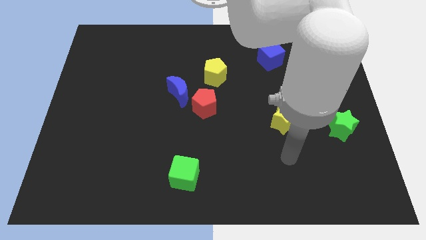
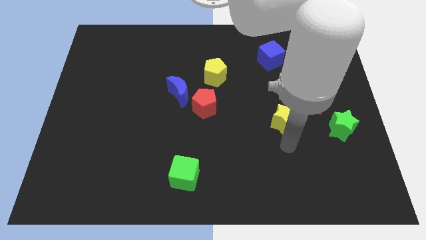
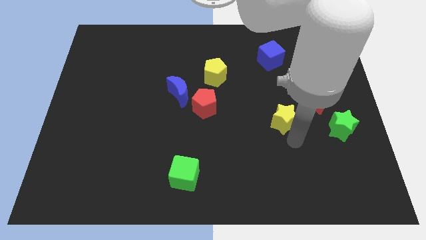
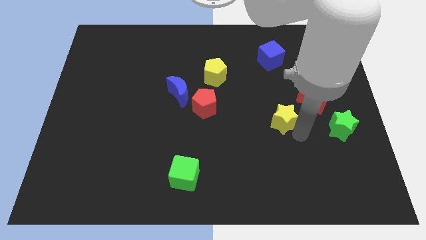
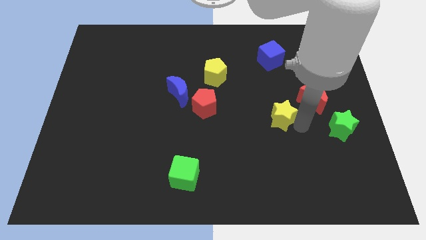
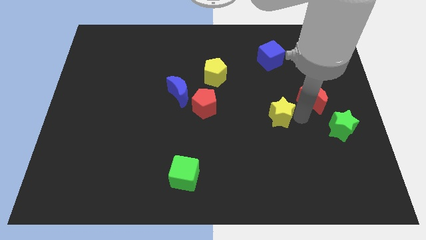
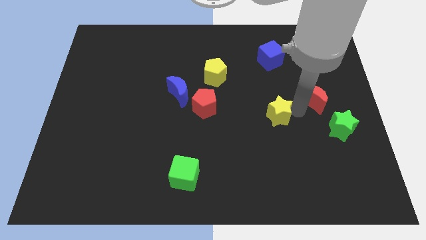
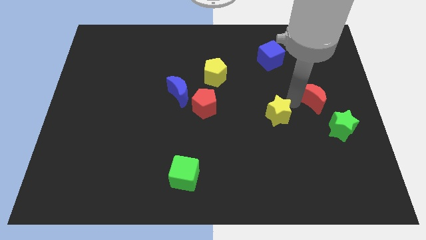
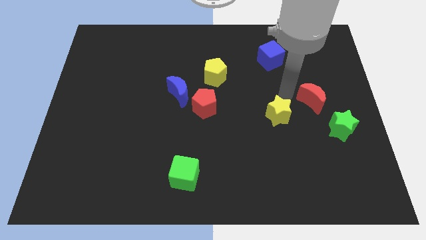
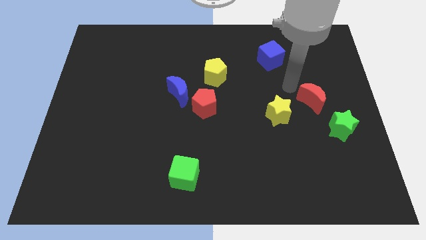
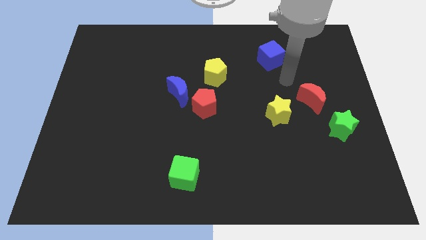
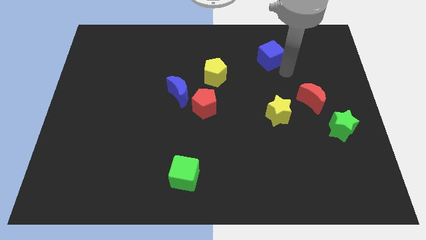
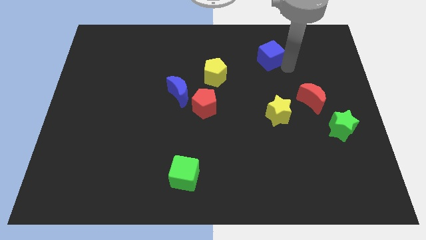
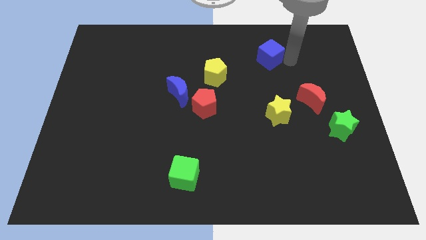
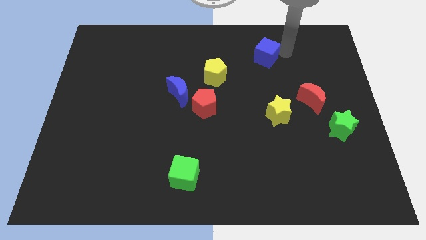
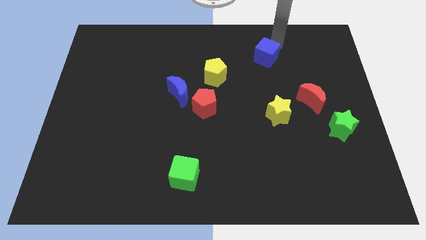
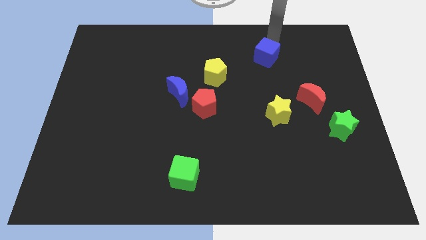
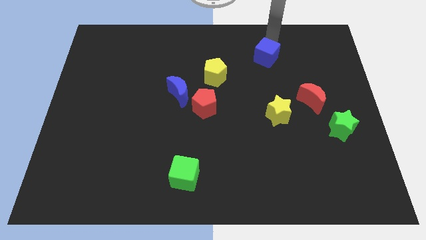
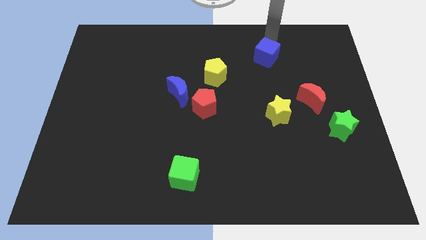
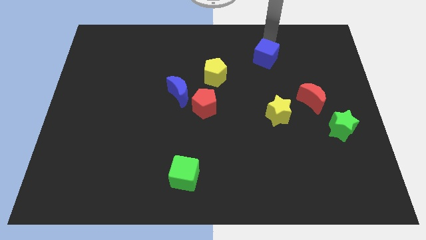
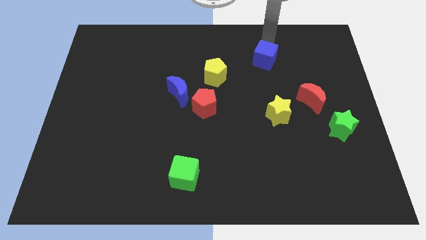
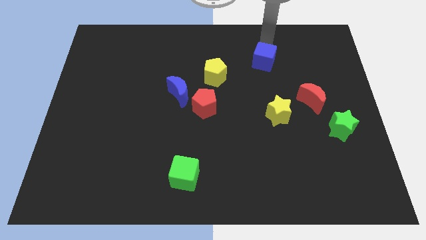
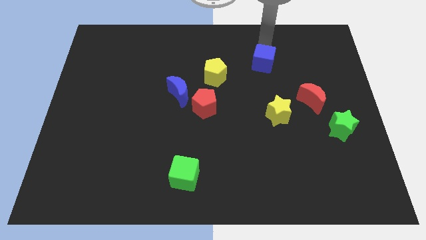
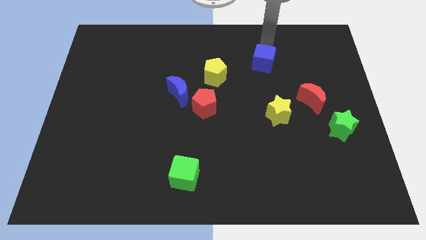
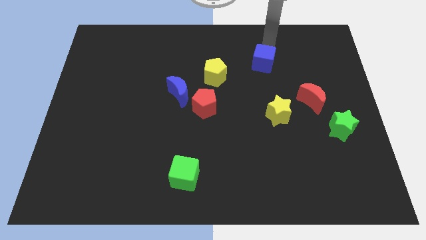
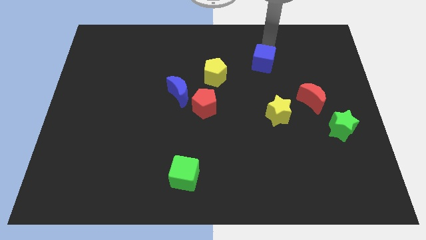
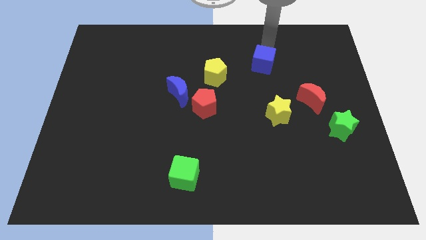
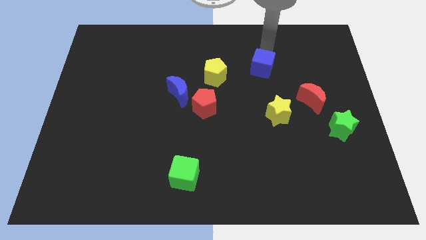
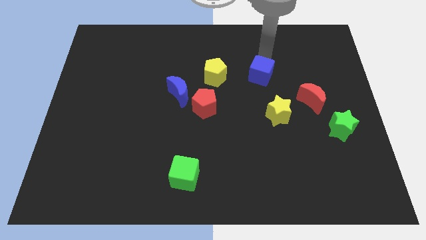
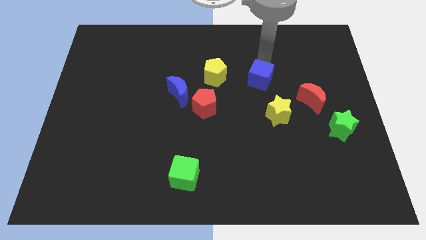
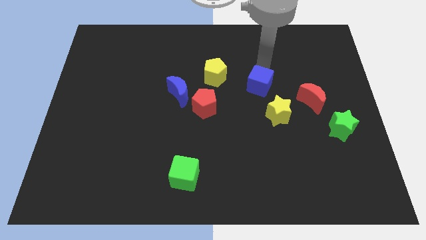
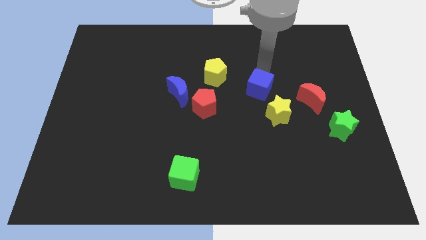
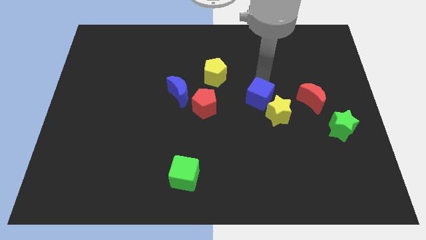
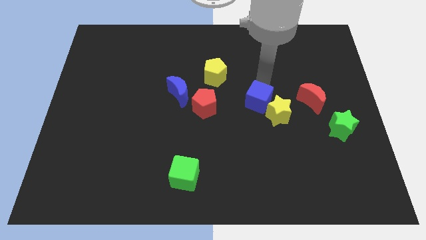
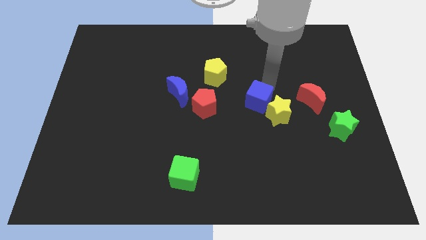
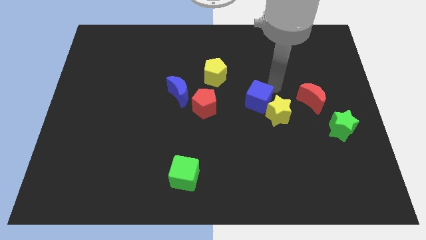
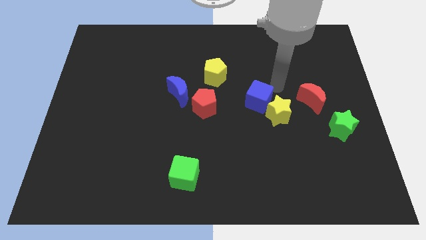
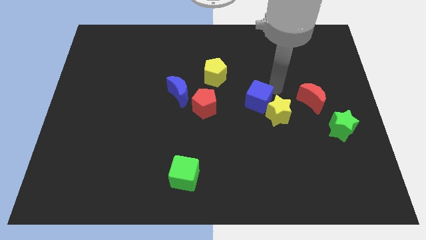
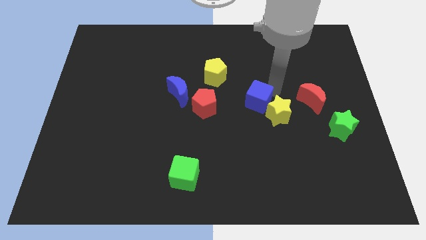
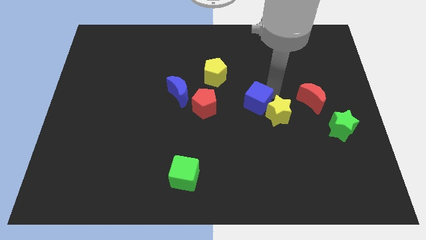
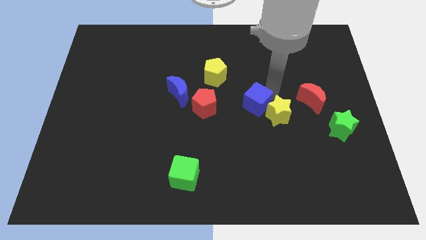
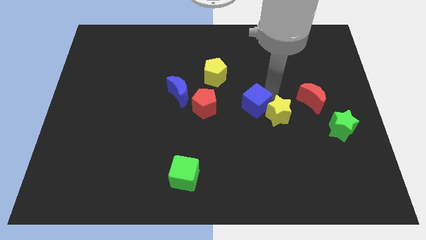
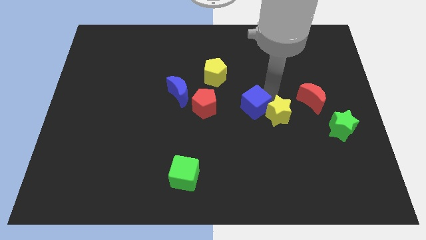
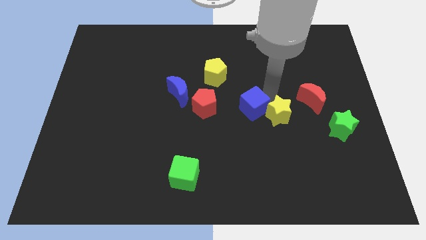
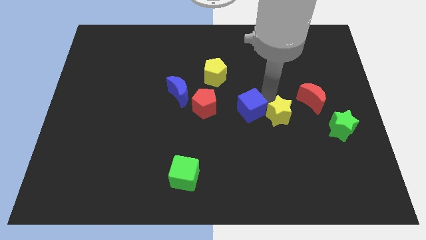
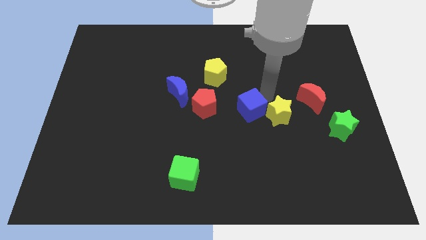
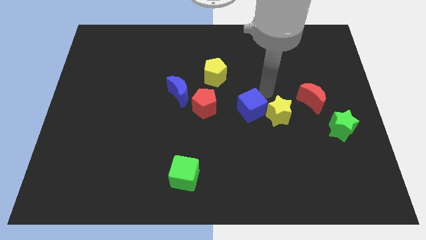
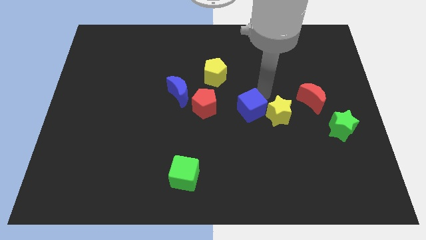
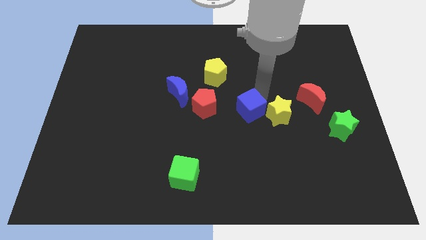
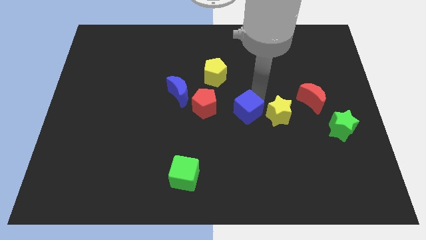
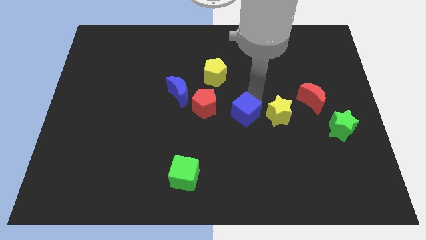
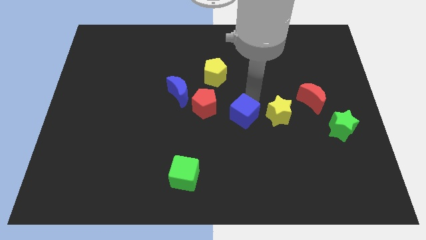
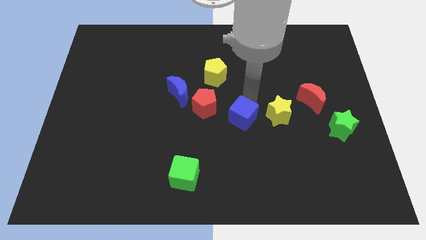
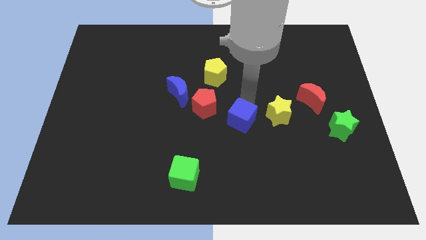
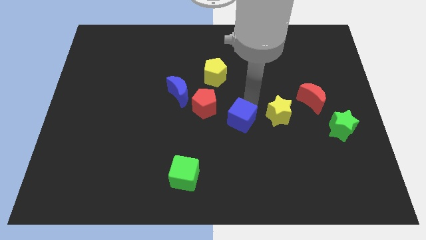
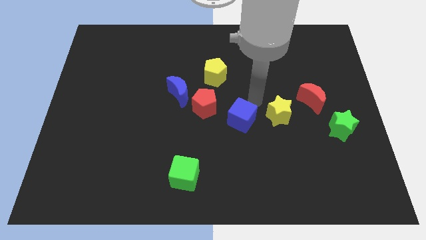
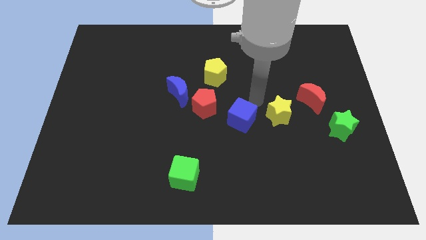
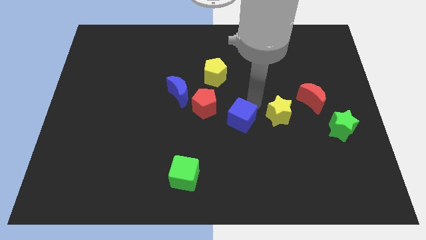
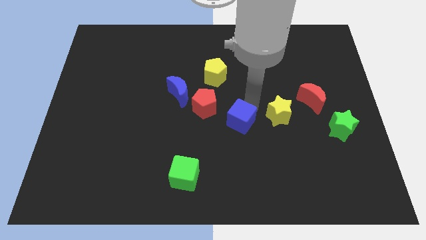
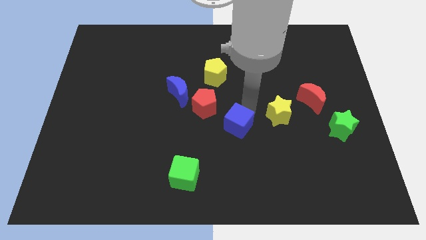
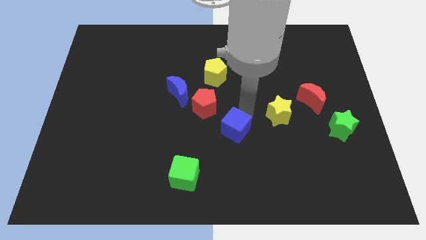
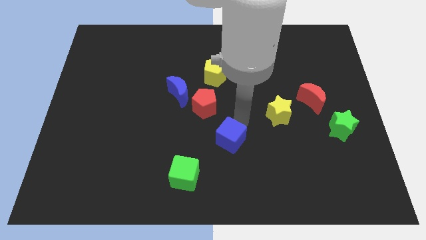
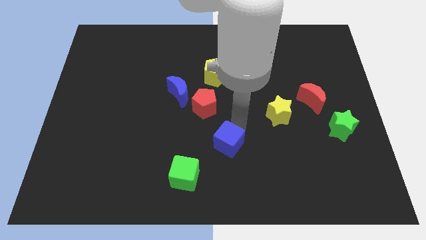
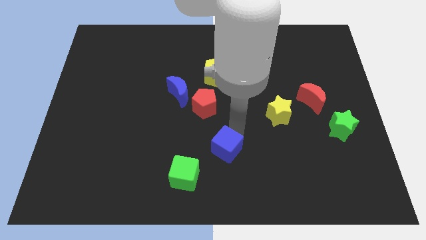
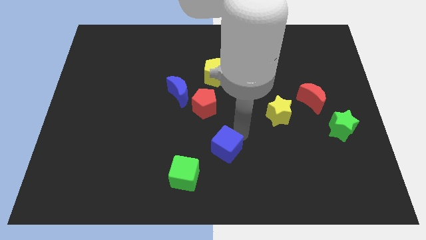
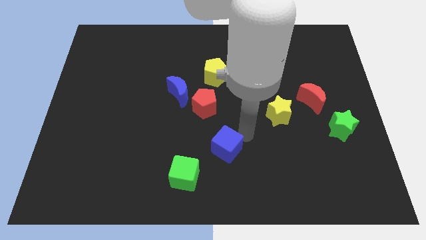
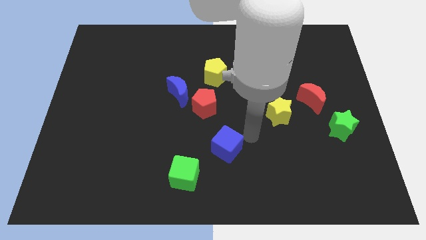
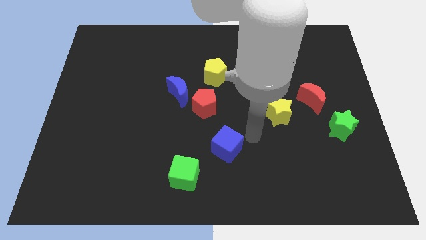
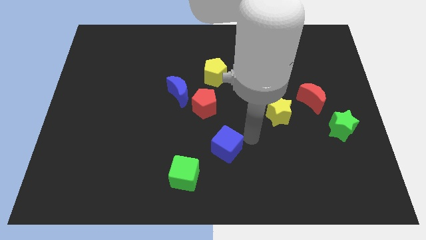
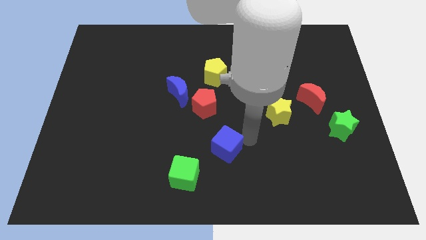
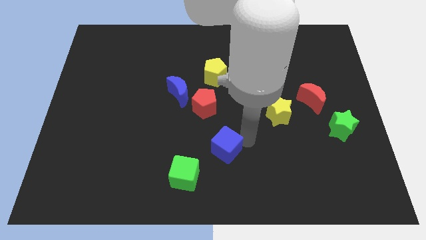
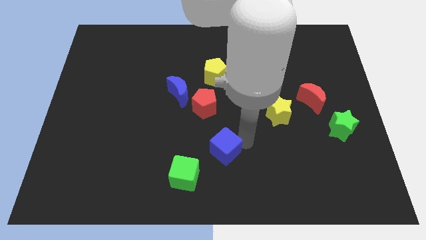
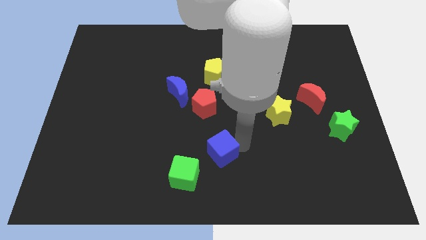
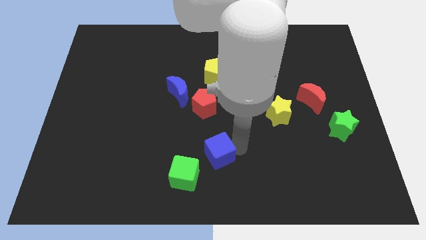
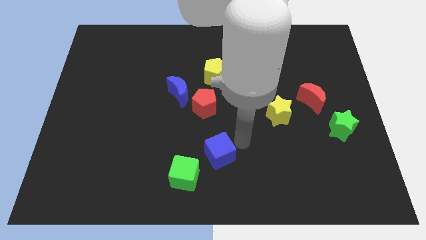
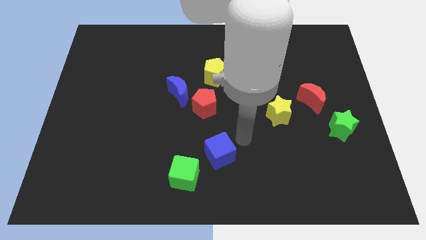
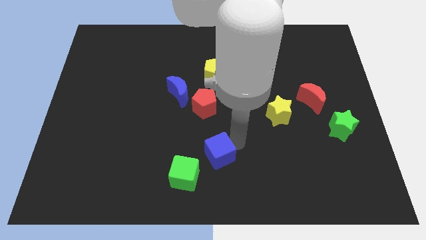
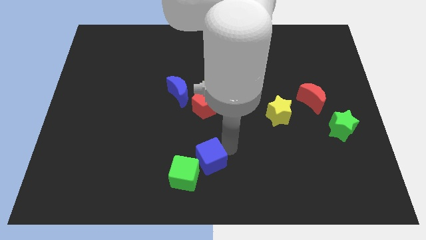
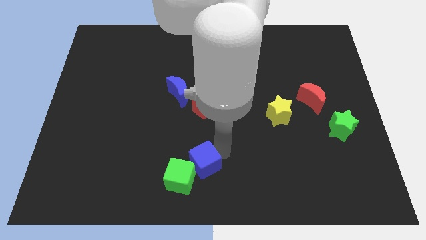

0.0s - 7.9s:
move the blue cube next to the green cube
